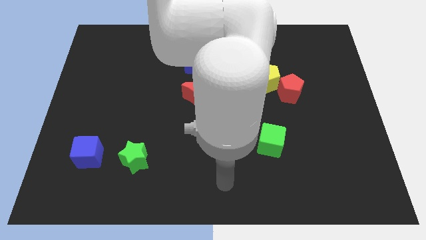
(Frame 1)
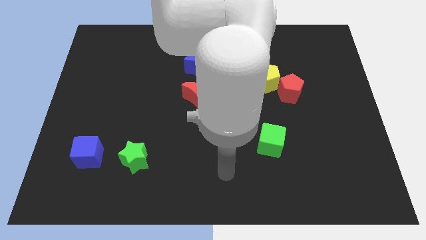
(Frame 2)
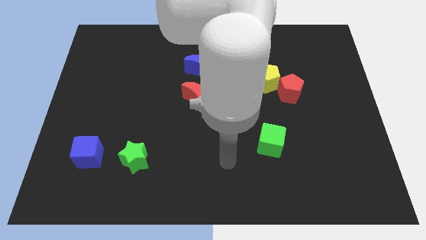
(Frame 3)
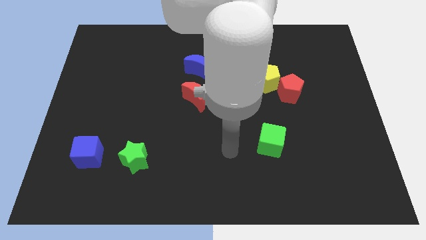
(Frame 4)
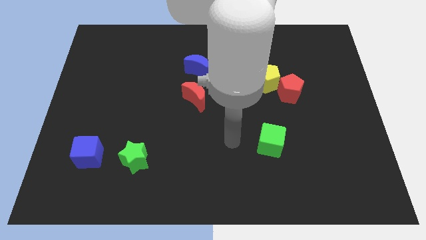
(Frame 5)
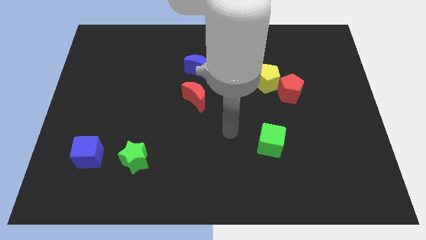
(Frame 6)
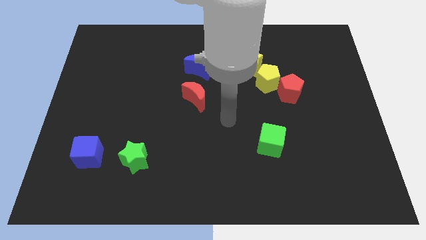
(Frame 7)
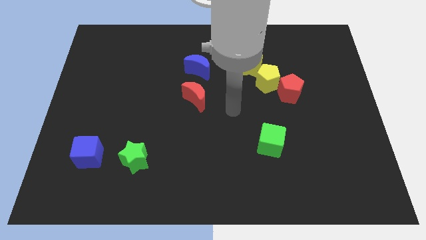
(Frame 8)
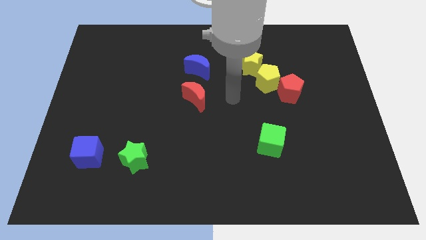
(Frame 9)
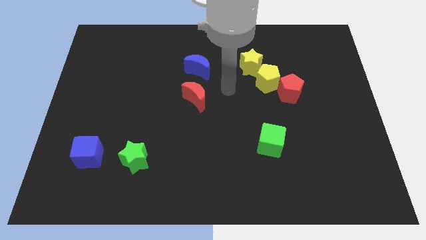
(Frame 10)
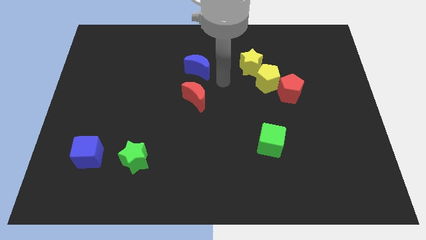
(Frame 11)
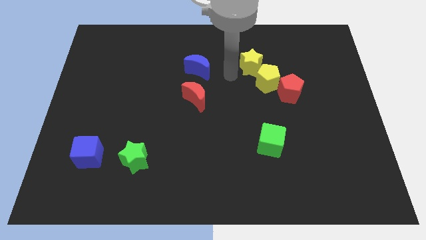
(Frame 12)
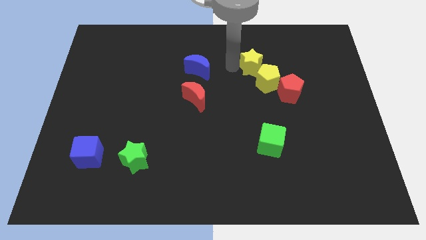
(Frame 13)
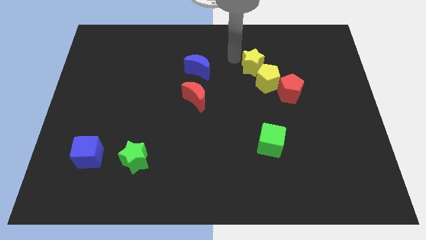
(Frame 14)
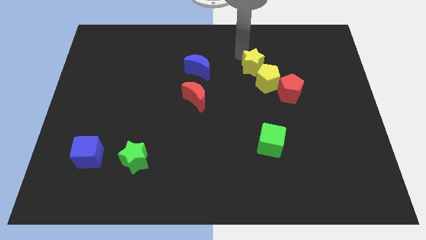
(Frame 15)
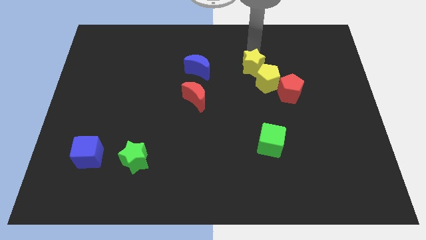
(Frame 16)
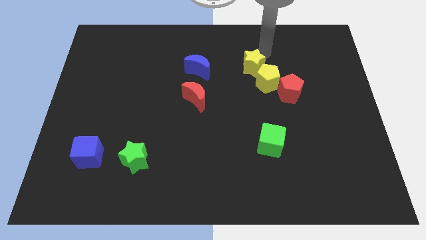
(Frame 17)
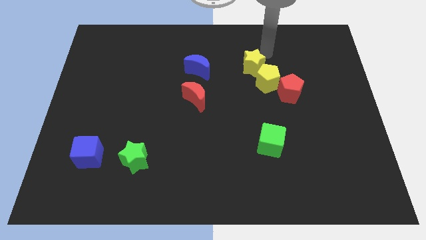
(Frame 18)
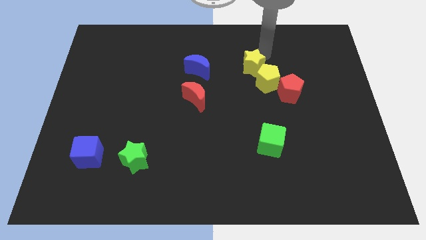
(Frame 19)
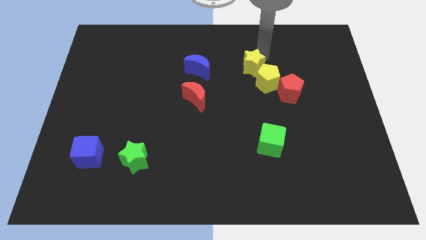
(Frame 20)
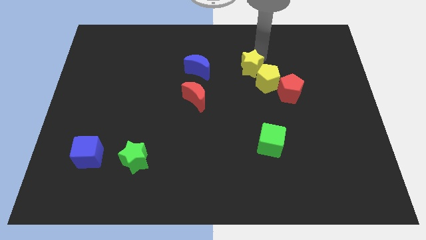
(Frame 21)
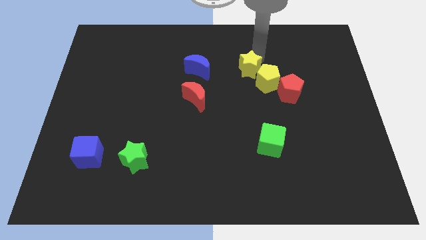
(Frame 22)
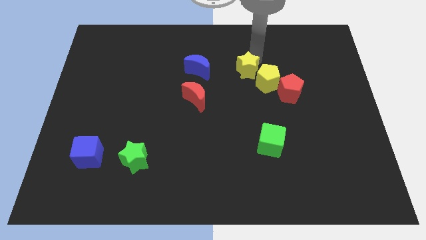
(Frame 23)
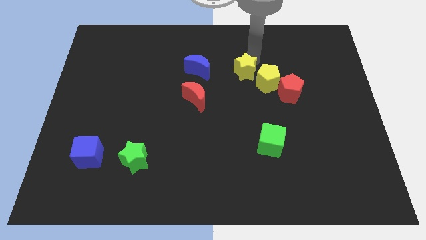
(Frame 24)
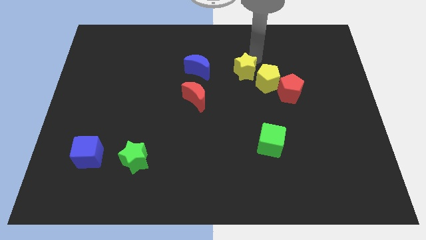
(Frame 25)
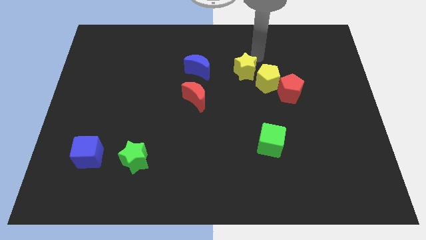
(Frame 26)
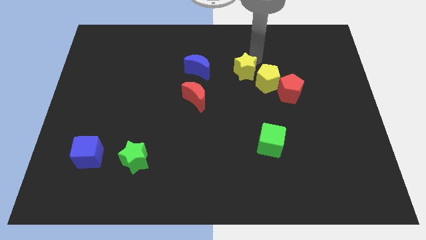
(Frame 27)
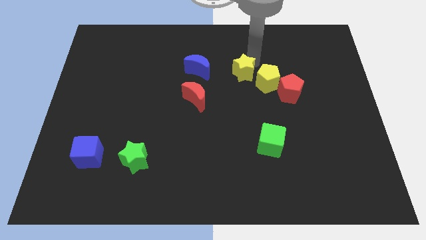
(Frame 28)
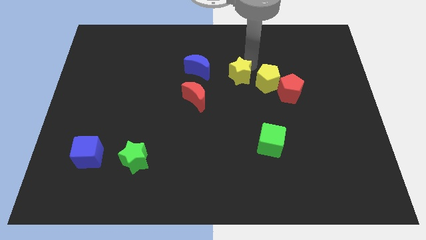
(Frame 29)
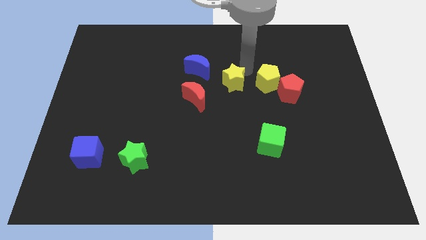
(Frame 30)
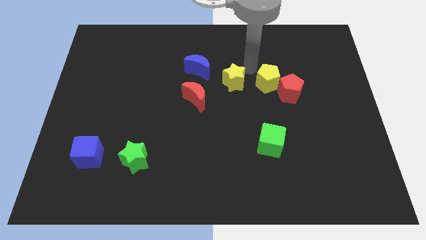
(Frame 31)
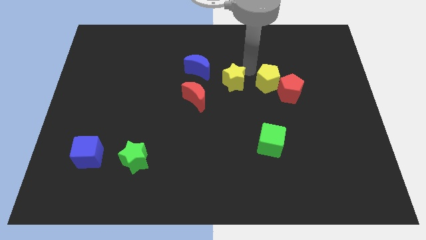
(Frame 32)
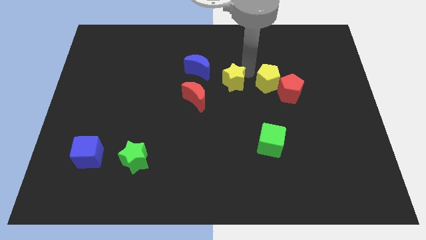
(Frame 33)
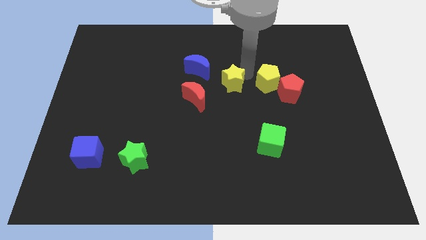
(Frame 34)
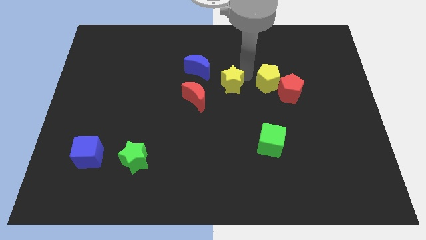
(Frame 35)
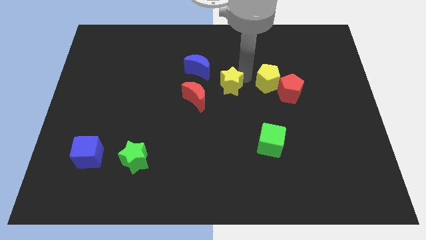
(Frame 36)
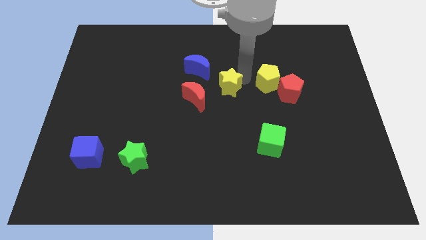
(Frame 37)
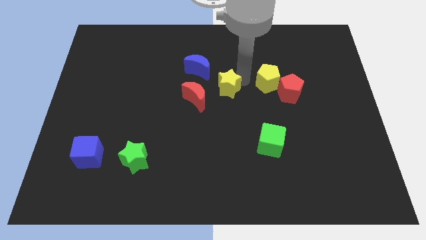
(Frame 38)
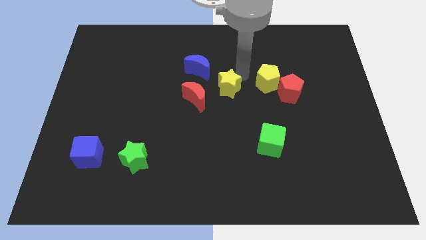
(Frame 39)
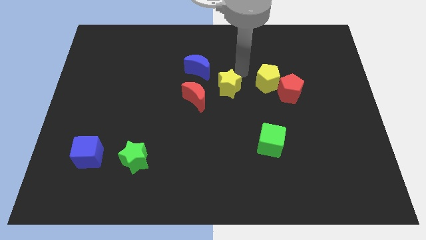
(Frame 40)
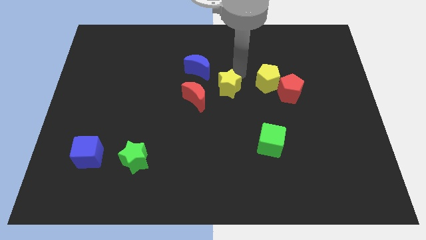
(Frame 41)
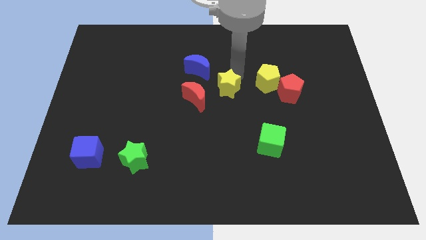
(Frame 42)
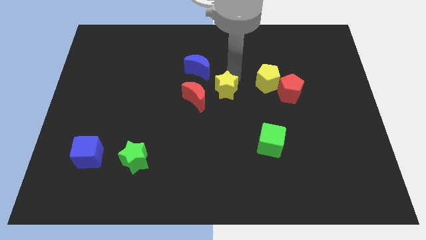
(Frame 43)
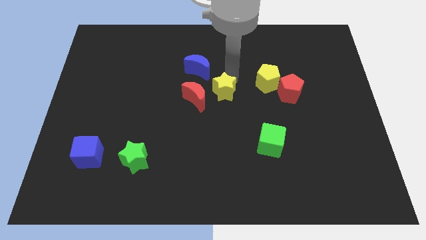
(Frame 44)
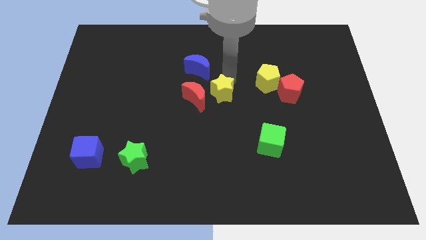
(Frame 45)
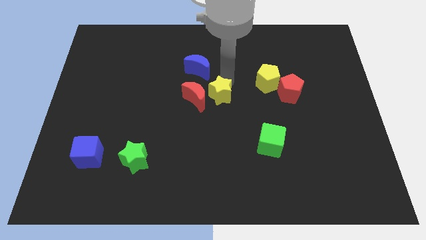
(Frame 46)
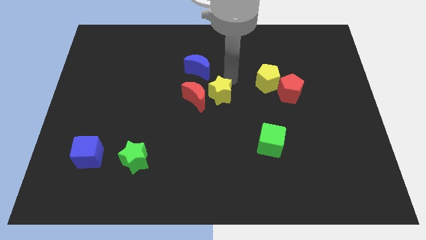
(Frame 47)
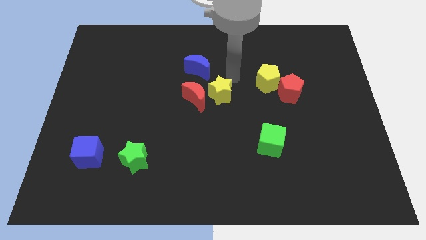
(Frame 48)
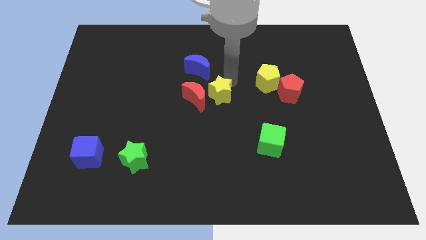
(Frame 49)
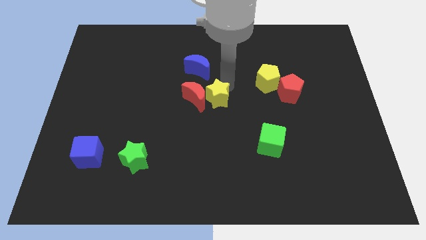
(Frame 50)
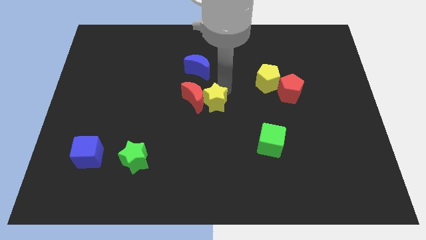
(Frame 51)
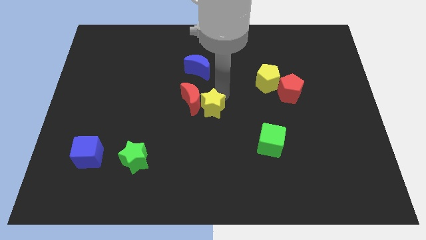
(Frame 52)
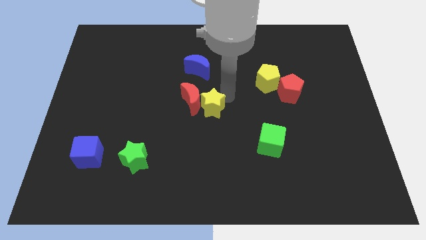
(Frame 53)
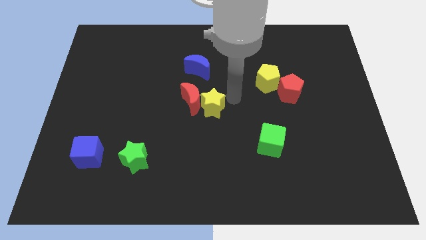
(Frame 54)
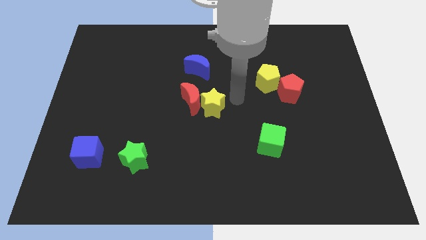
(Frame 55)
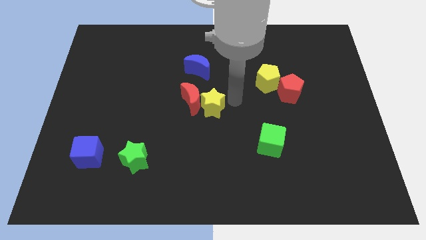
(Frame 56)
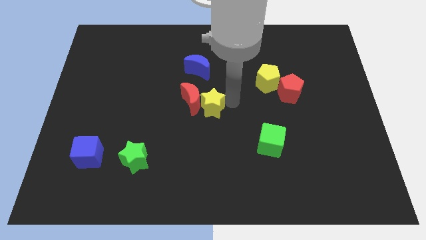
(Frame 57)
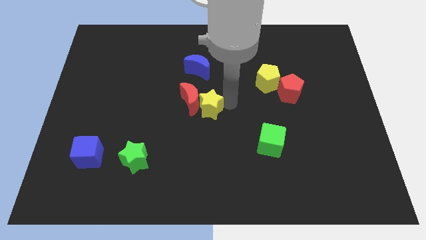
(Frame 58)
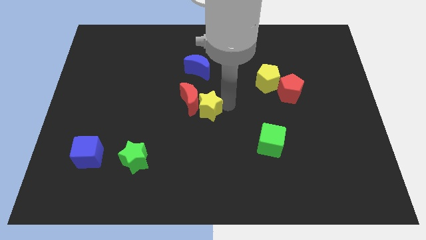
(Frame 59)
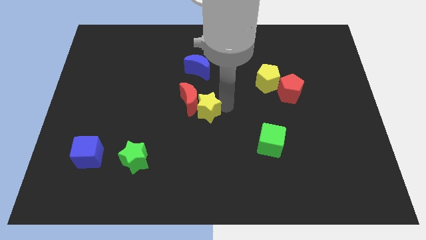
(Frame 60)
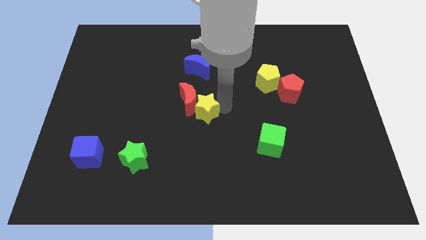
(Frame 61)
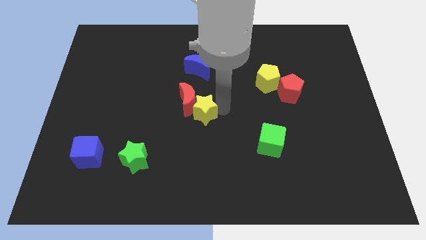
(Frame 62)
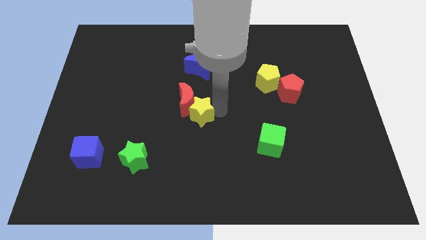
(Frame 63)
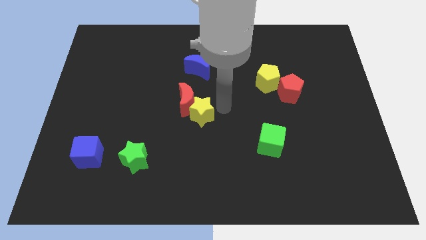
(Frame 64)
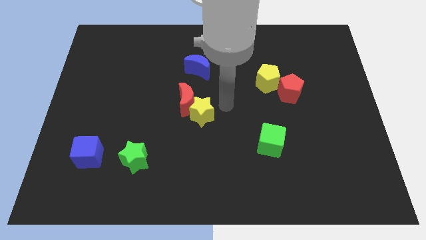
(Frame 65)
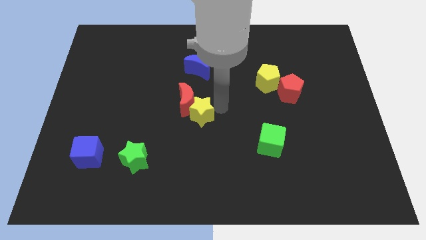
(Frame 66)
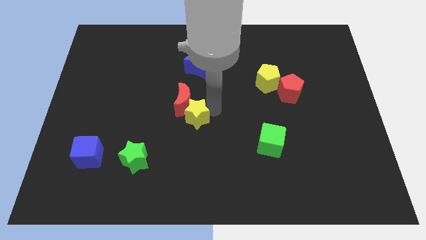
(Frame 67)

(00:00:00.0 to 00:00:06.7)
move the yellow star down and then left

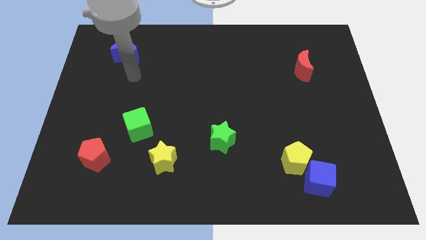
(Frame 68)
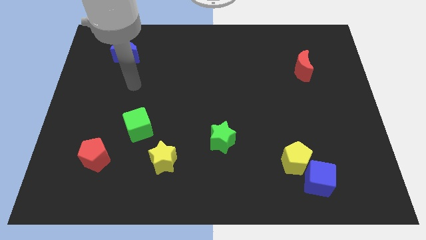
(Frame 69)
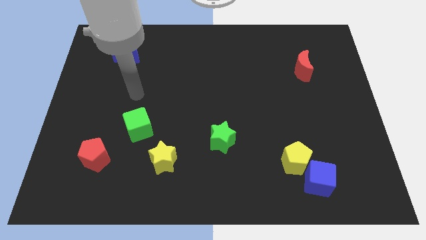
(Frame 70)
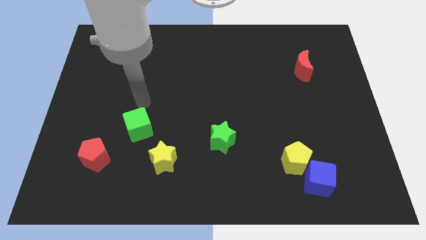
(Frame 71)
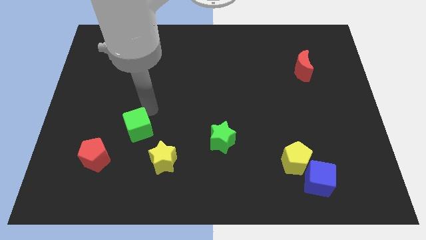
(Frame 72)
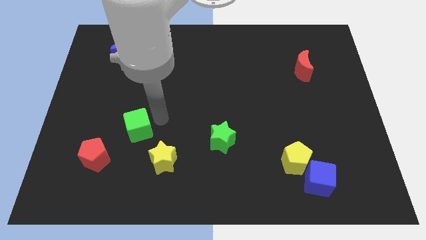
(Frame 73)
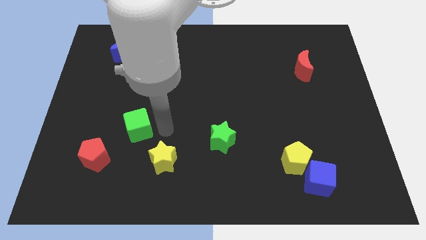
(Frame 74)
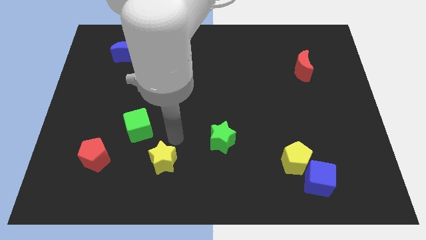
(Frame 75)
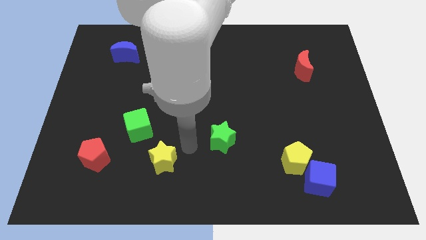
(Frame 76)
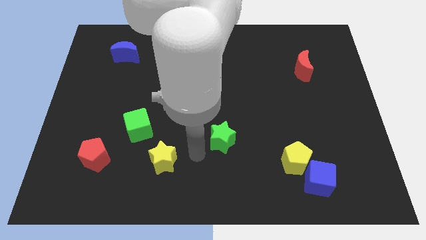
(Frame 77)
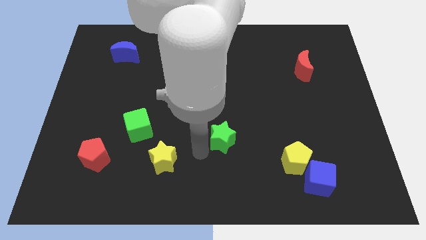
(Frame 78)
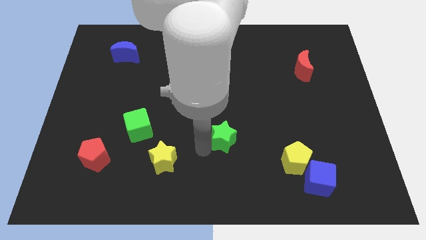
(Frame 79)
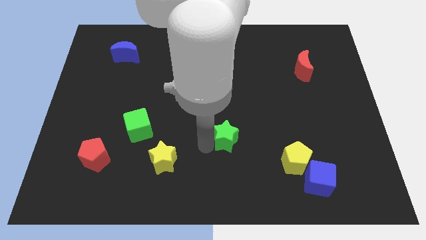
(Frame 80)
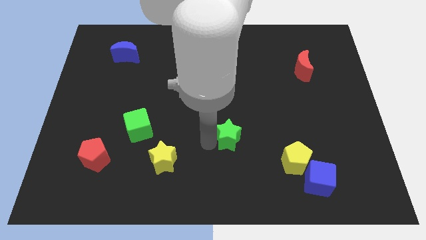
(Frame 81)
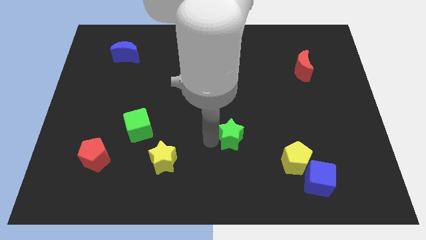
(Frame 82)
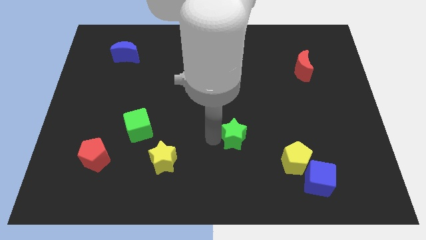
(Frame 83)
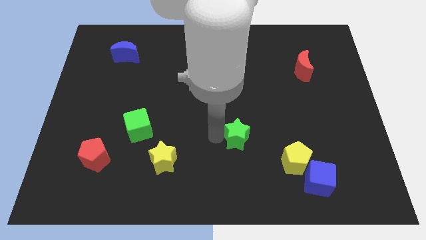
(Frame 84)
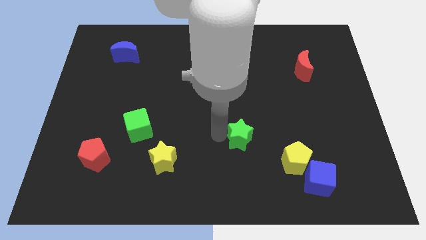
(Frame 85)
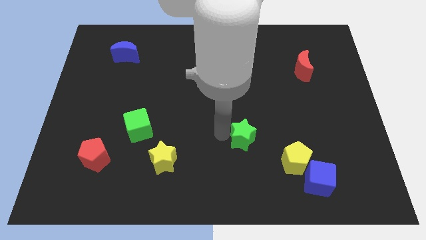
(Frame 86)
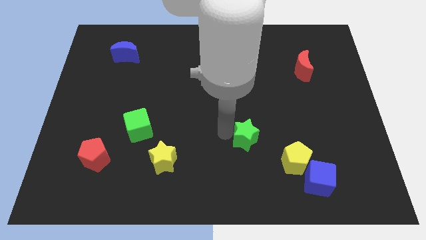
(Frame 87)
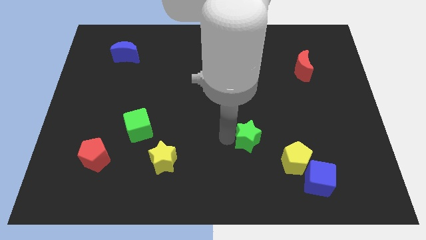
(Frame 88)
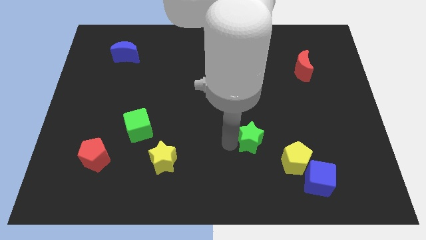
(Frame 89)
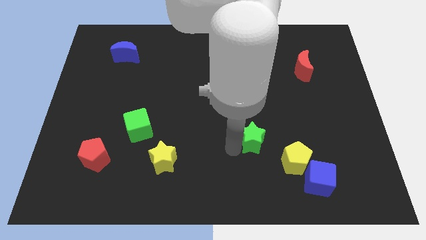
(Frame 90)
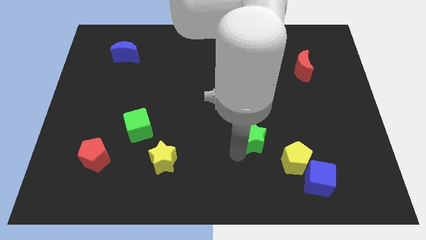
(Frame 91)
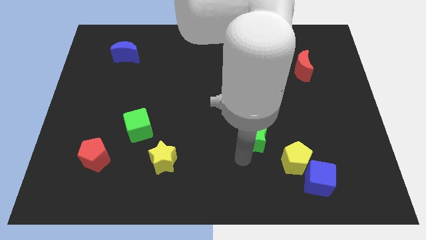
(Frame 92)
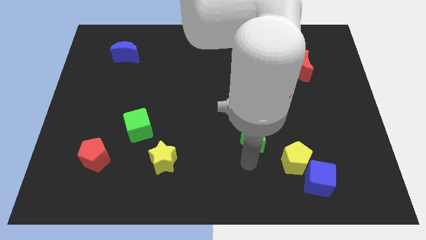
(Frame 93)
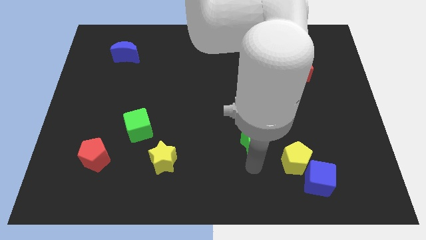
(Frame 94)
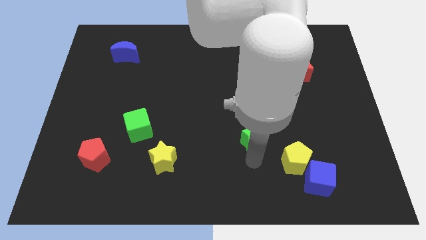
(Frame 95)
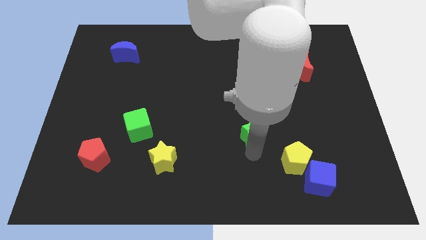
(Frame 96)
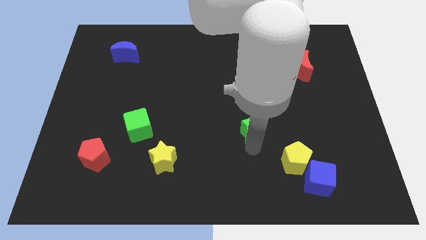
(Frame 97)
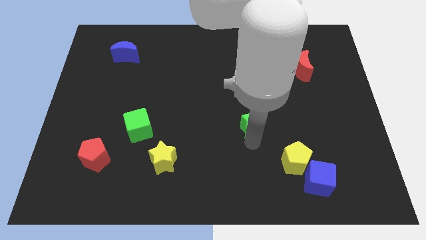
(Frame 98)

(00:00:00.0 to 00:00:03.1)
move the green star a little bit up and to the right
